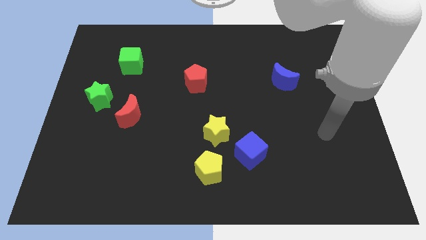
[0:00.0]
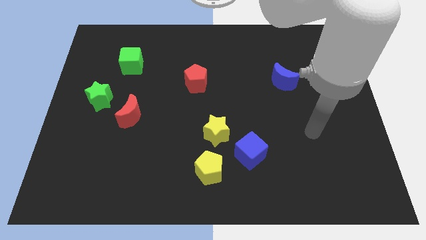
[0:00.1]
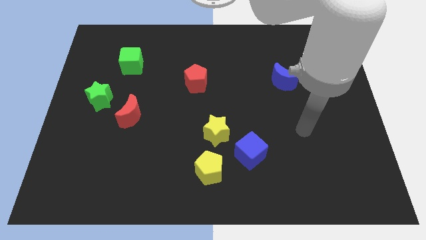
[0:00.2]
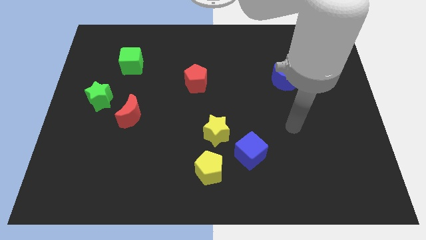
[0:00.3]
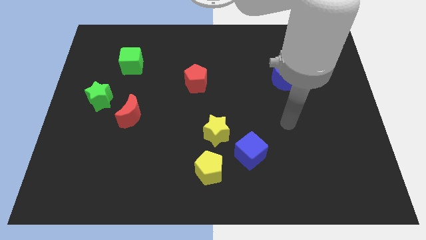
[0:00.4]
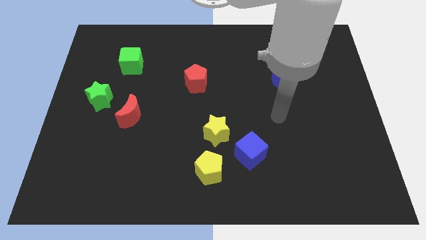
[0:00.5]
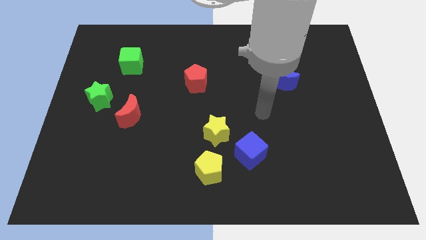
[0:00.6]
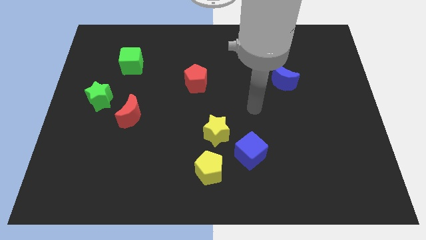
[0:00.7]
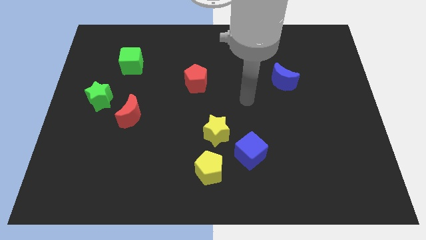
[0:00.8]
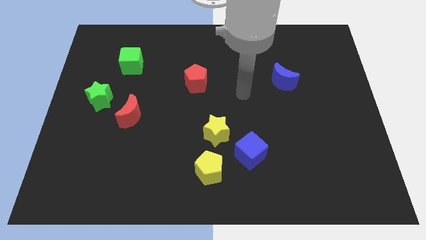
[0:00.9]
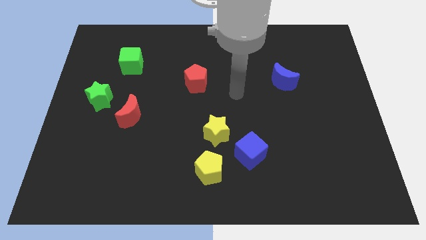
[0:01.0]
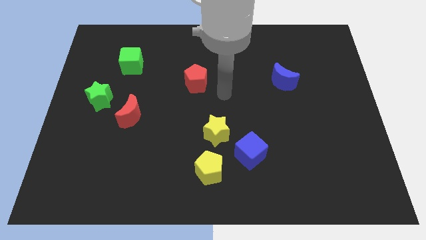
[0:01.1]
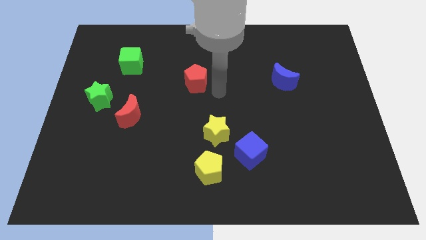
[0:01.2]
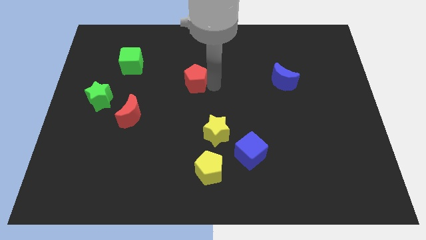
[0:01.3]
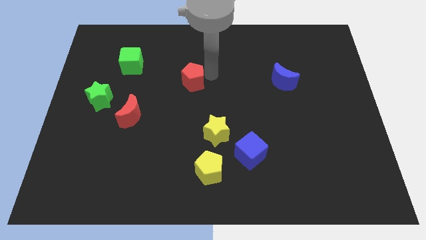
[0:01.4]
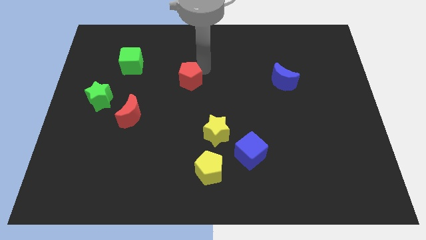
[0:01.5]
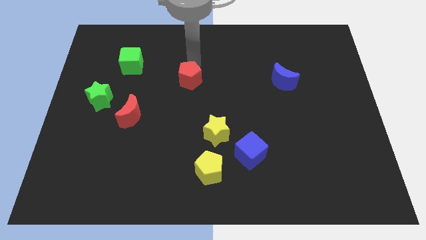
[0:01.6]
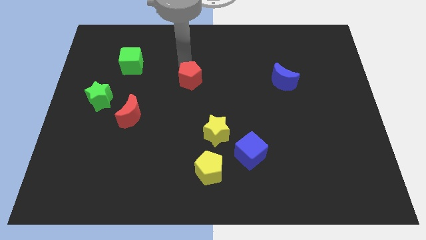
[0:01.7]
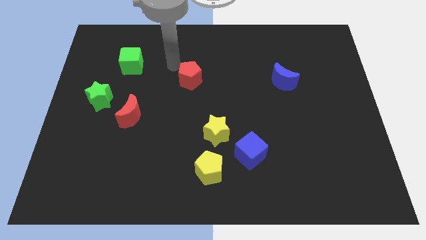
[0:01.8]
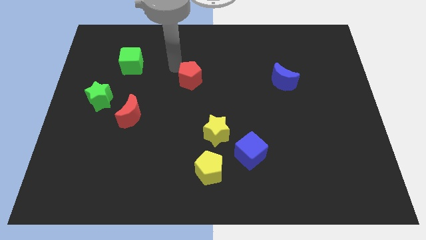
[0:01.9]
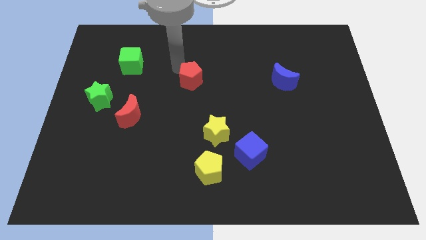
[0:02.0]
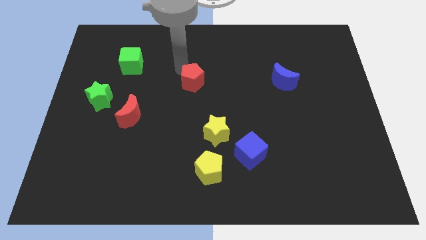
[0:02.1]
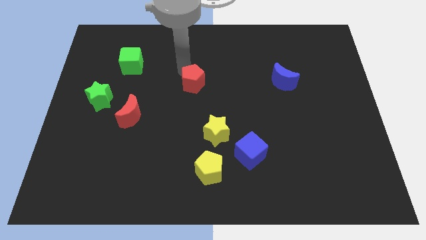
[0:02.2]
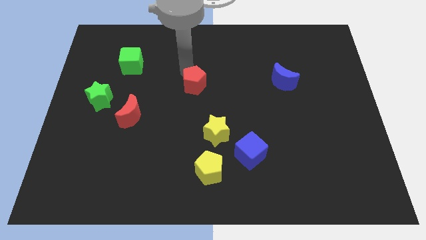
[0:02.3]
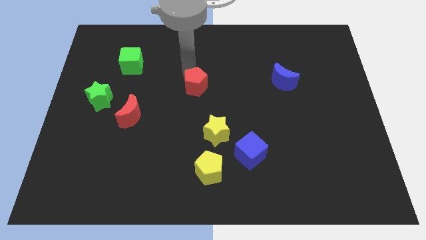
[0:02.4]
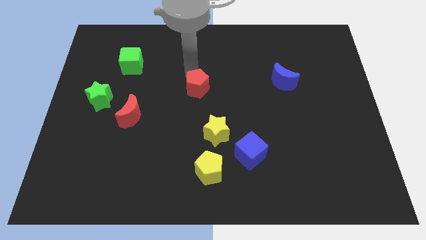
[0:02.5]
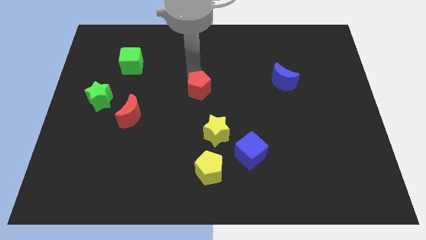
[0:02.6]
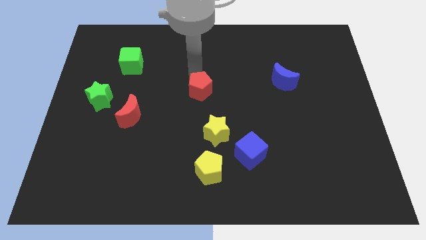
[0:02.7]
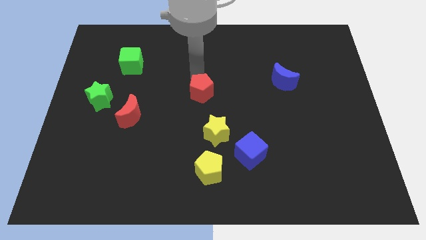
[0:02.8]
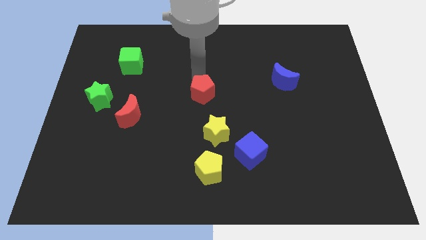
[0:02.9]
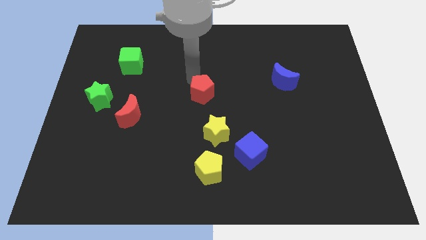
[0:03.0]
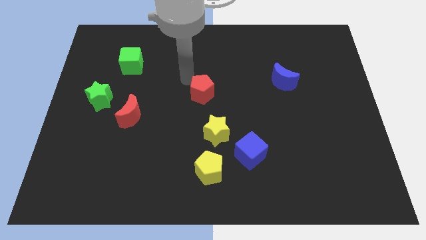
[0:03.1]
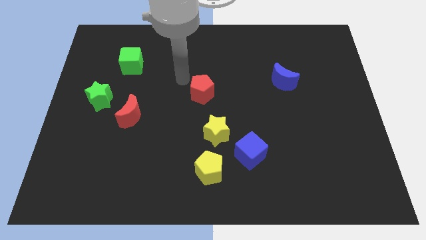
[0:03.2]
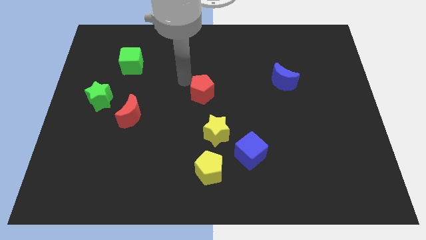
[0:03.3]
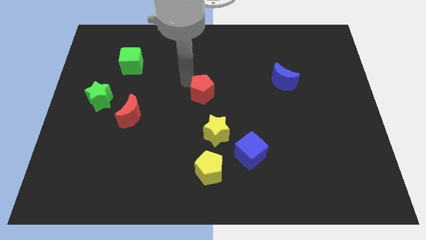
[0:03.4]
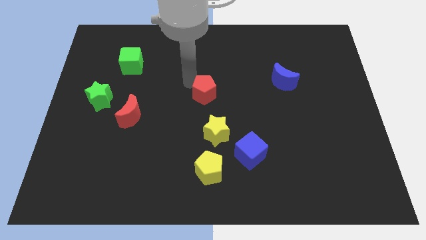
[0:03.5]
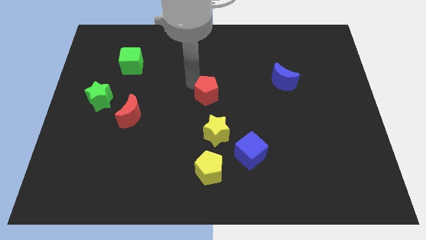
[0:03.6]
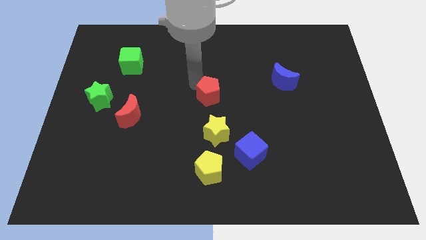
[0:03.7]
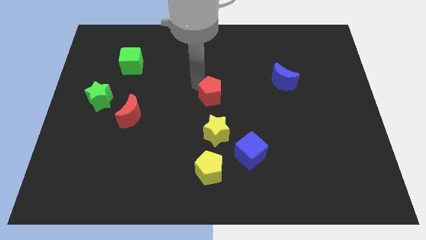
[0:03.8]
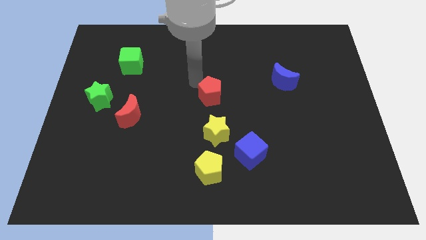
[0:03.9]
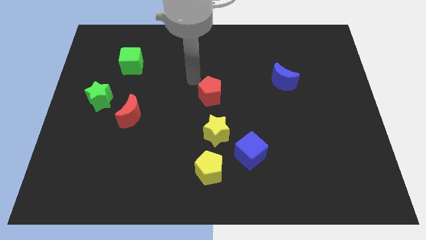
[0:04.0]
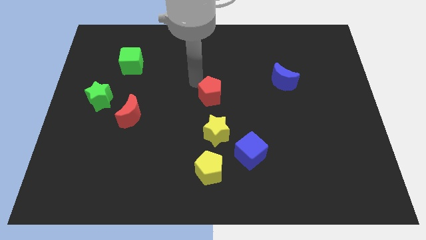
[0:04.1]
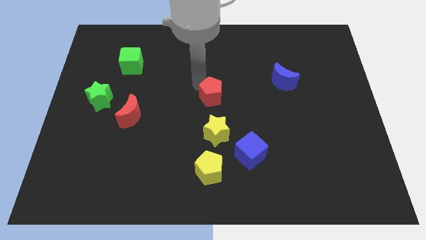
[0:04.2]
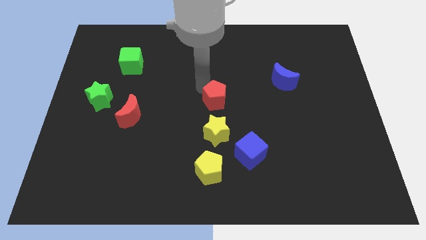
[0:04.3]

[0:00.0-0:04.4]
slightly push the red pentagon diagonally downwards and to the right

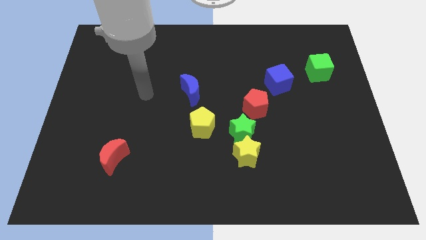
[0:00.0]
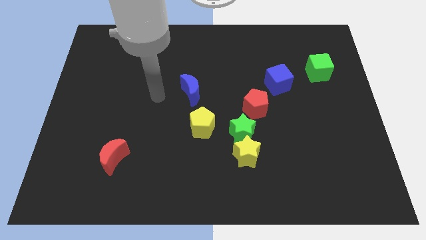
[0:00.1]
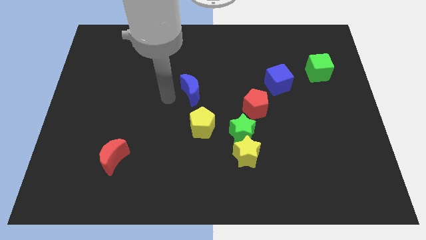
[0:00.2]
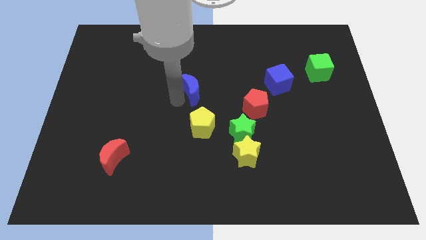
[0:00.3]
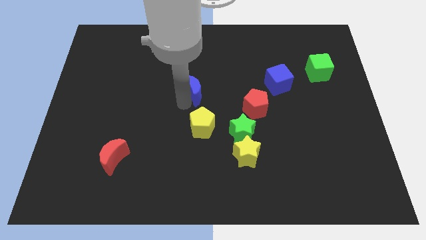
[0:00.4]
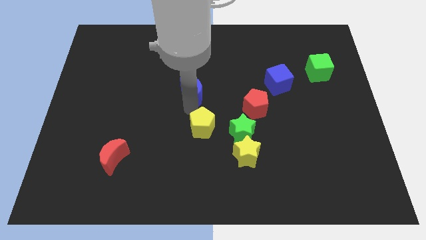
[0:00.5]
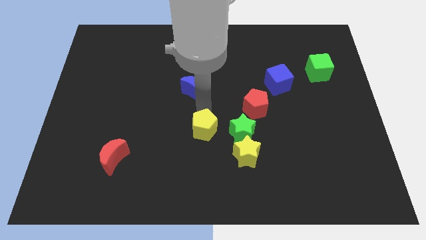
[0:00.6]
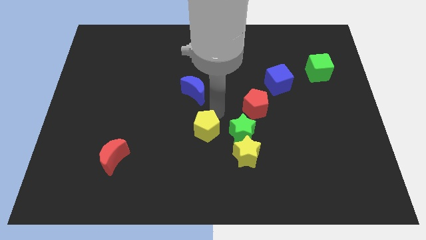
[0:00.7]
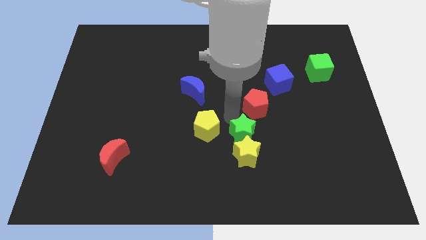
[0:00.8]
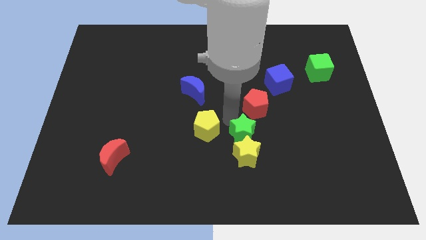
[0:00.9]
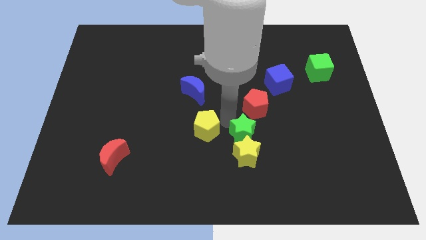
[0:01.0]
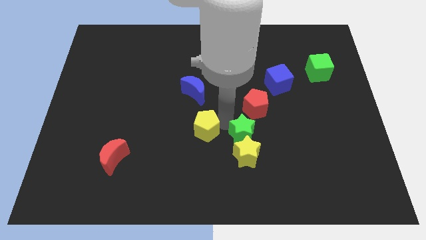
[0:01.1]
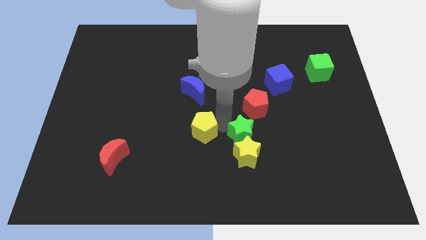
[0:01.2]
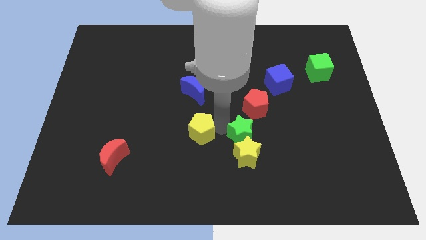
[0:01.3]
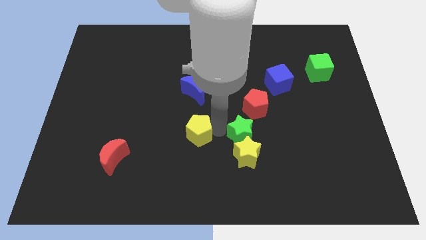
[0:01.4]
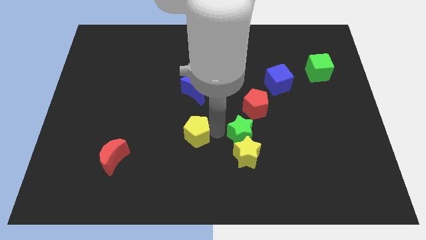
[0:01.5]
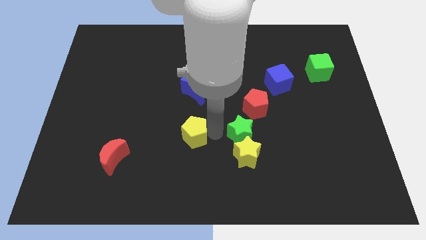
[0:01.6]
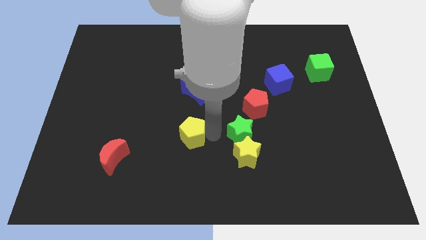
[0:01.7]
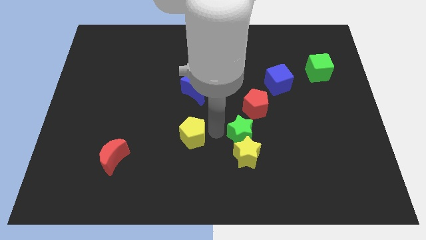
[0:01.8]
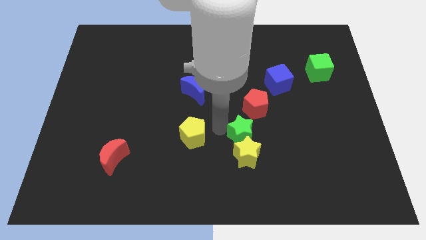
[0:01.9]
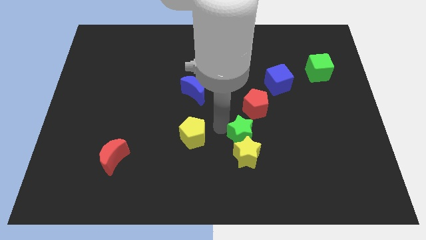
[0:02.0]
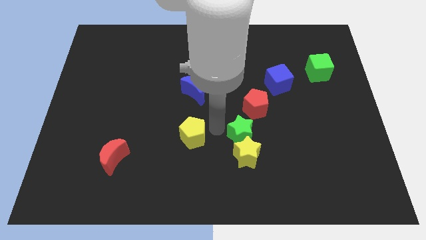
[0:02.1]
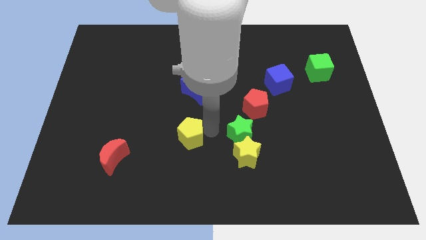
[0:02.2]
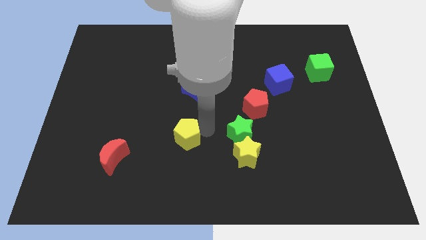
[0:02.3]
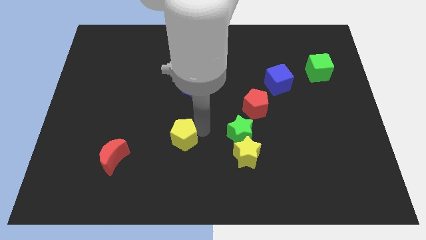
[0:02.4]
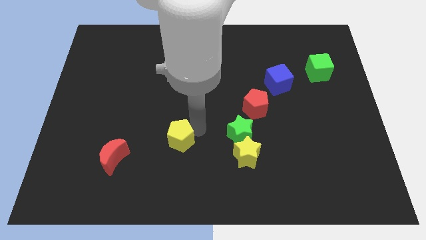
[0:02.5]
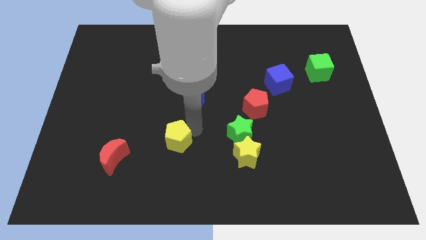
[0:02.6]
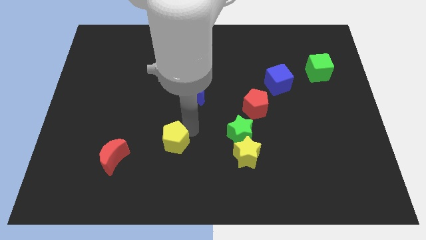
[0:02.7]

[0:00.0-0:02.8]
slightly move the yellow pentagon downwards and left diagonally

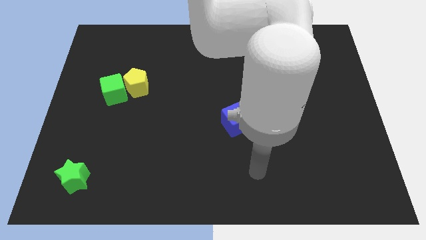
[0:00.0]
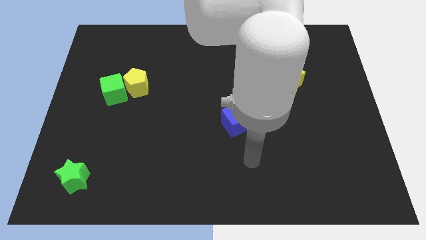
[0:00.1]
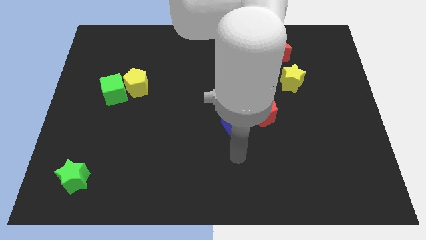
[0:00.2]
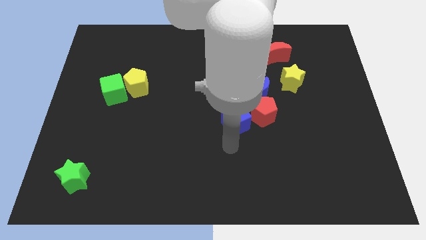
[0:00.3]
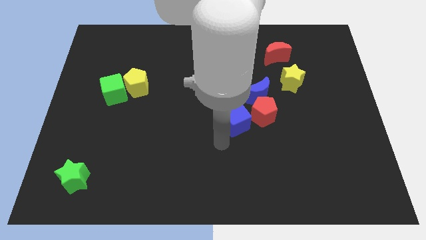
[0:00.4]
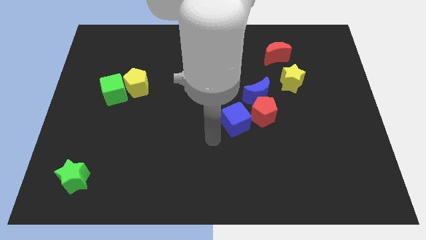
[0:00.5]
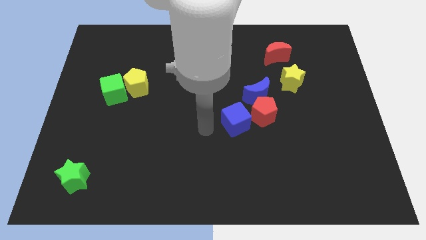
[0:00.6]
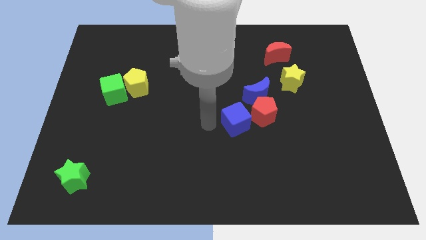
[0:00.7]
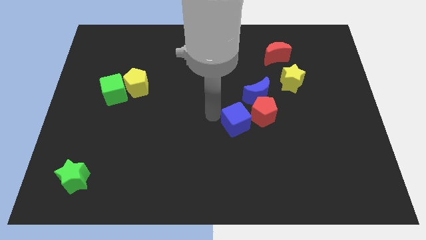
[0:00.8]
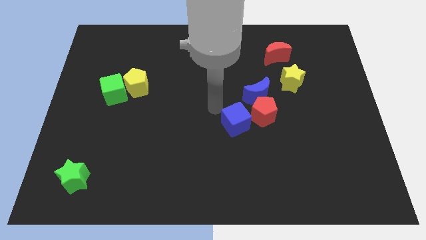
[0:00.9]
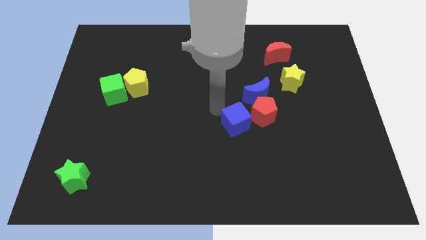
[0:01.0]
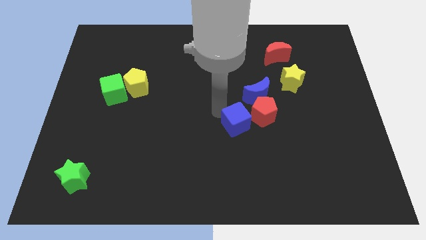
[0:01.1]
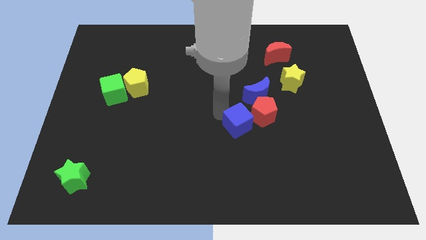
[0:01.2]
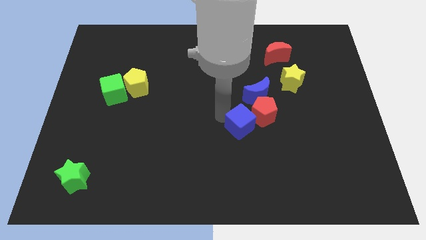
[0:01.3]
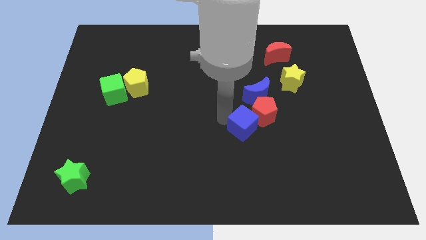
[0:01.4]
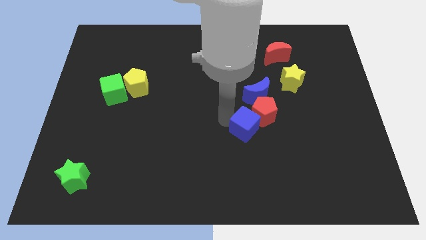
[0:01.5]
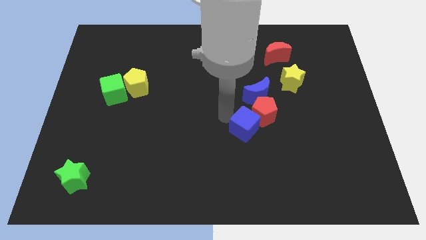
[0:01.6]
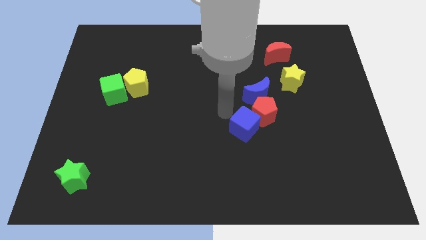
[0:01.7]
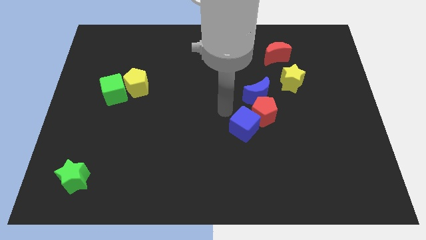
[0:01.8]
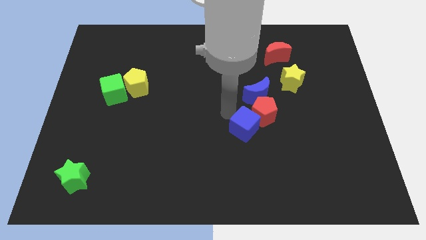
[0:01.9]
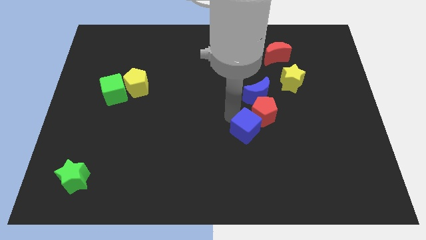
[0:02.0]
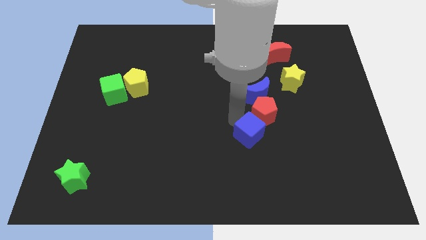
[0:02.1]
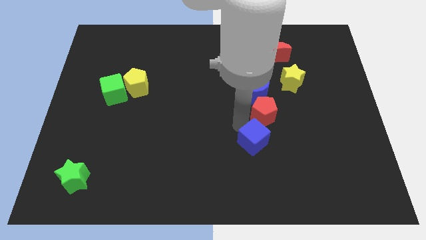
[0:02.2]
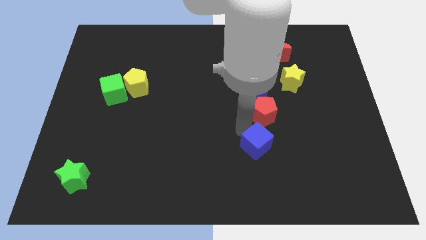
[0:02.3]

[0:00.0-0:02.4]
slide the blue cube a little bit diagonally down and right
